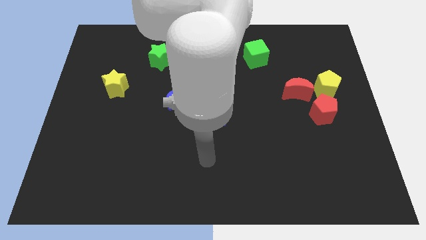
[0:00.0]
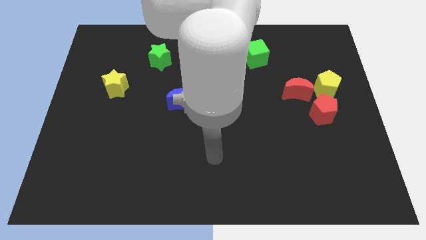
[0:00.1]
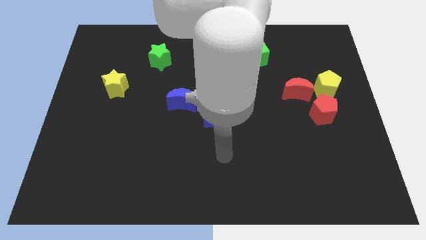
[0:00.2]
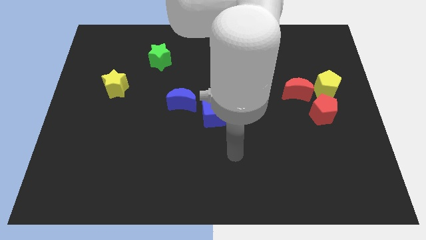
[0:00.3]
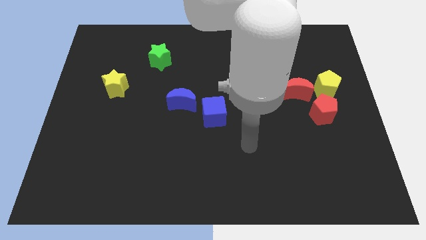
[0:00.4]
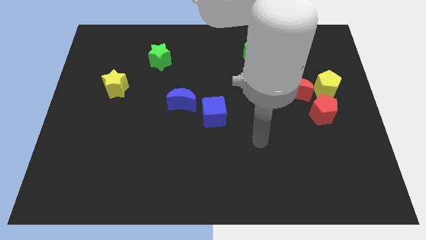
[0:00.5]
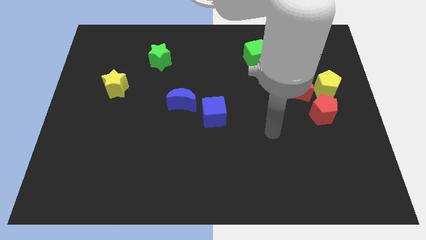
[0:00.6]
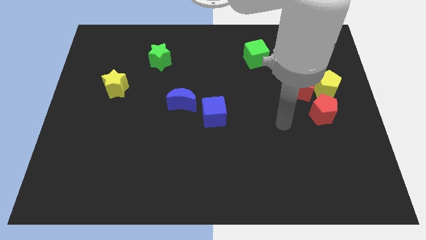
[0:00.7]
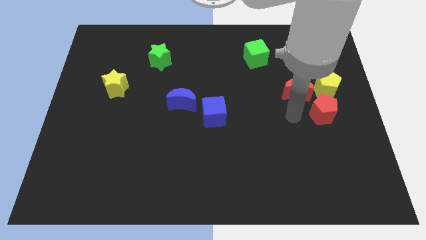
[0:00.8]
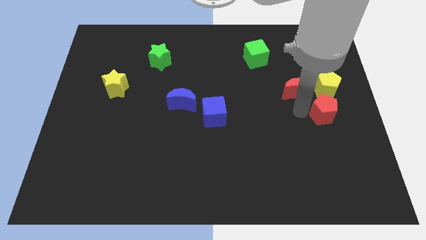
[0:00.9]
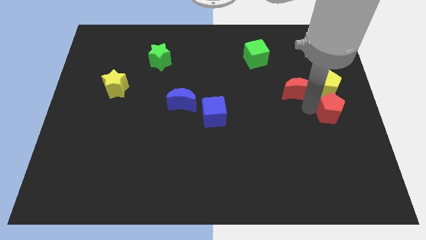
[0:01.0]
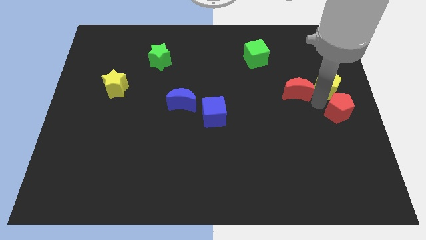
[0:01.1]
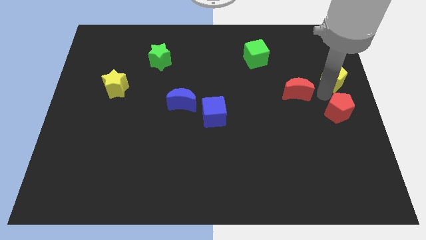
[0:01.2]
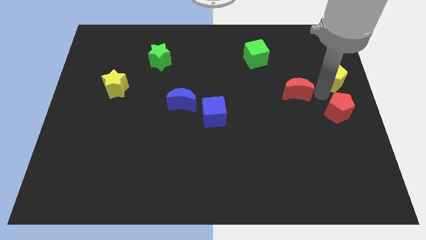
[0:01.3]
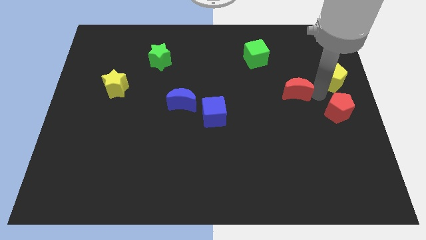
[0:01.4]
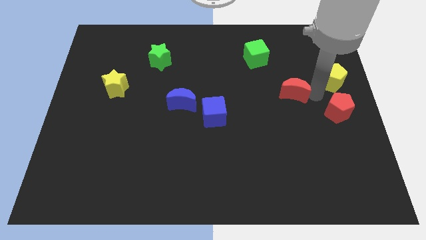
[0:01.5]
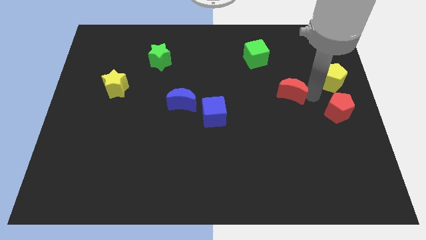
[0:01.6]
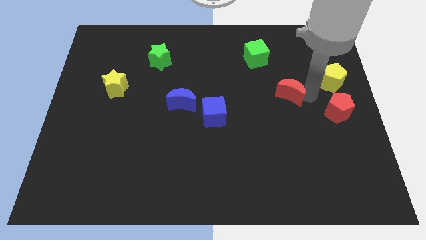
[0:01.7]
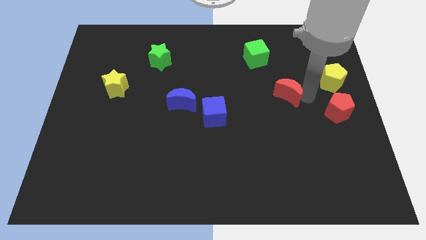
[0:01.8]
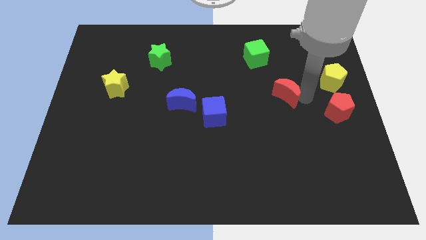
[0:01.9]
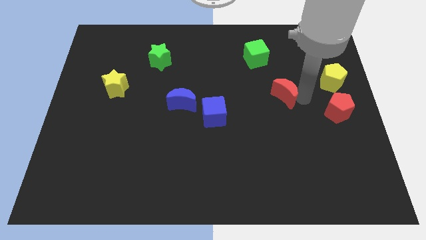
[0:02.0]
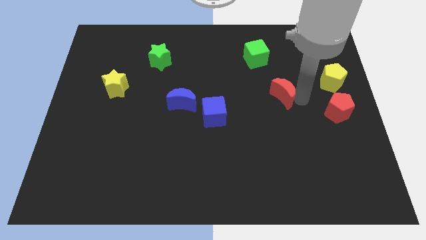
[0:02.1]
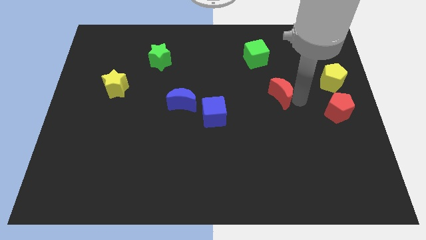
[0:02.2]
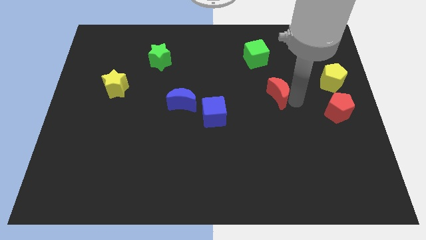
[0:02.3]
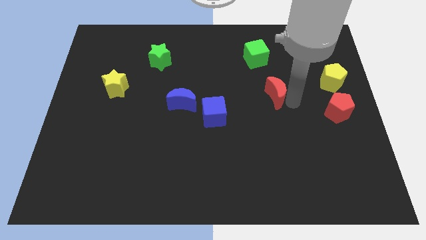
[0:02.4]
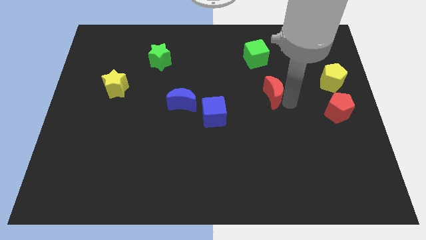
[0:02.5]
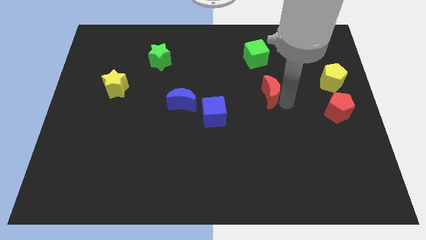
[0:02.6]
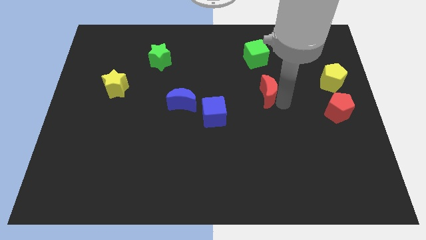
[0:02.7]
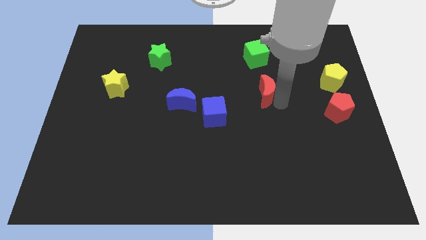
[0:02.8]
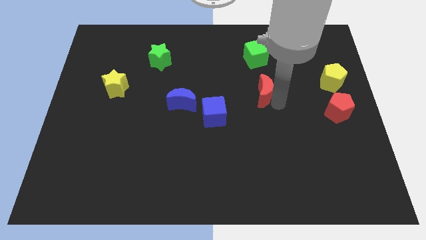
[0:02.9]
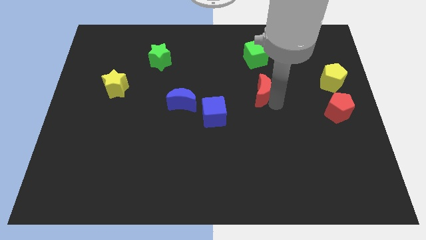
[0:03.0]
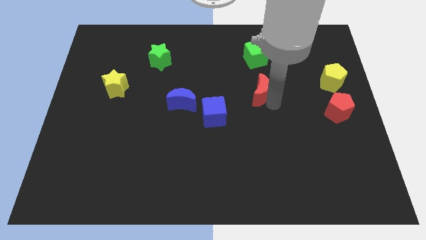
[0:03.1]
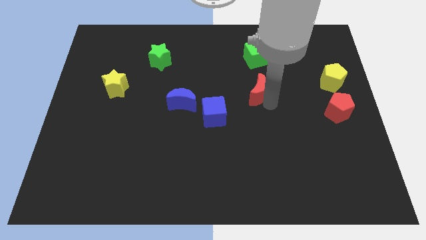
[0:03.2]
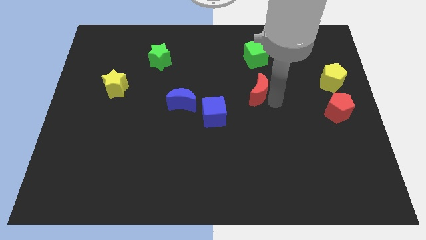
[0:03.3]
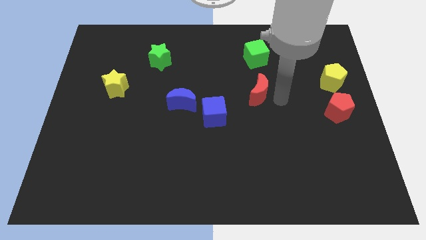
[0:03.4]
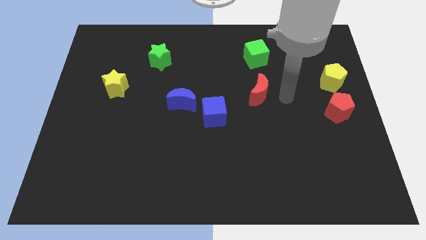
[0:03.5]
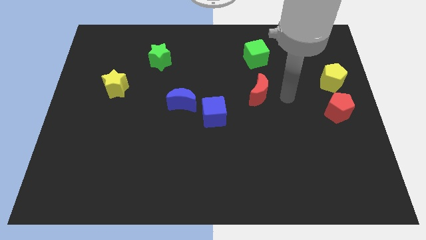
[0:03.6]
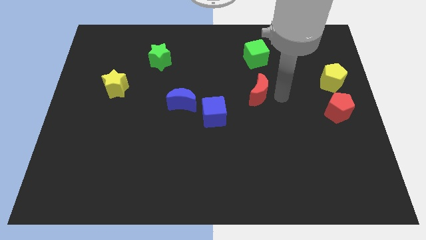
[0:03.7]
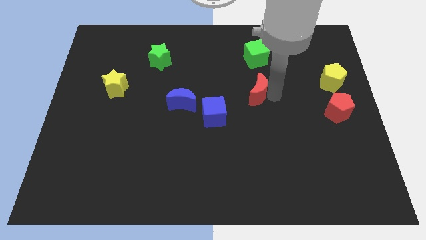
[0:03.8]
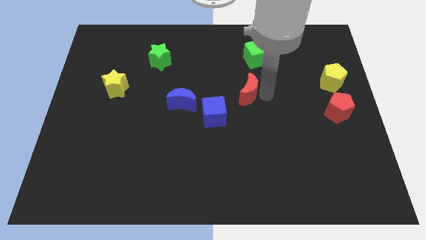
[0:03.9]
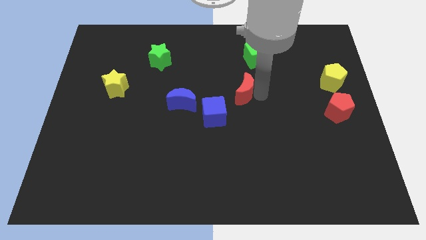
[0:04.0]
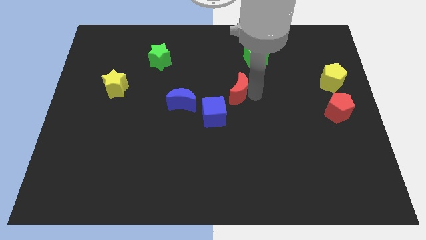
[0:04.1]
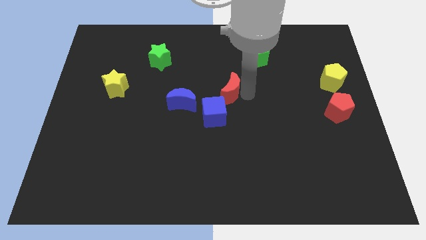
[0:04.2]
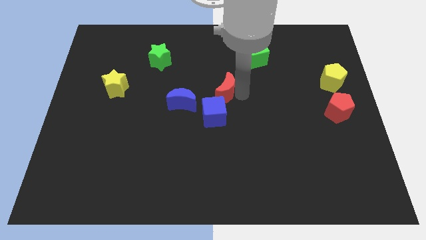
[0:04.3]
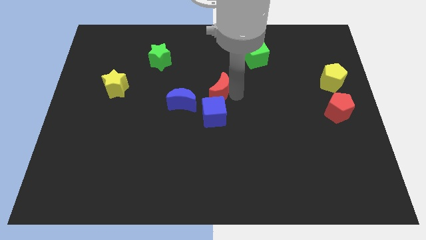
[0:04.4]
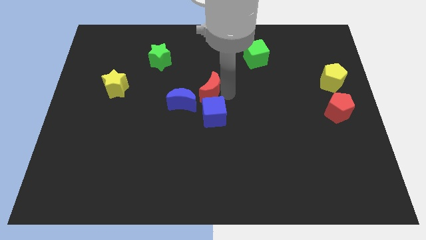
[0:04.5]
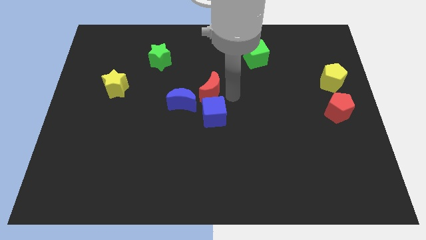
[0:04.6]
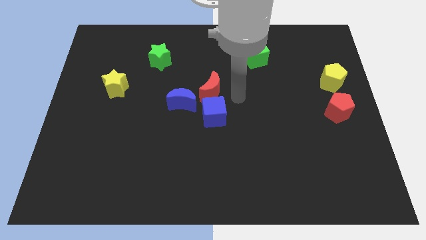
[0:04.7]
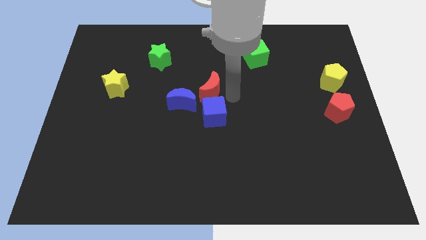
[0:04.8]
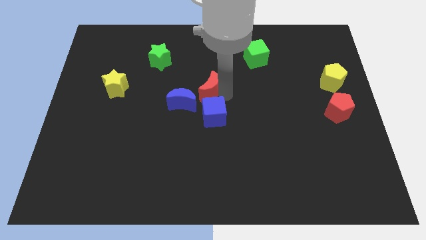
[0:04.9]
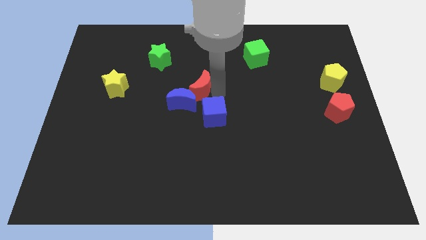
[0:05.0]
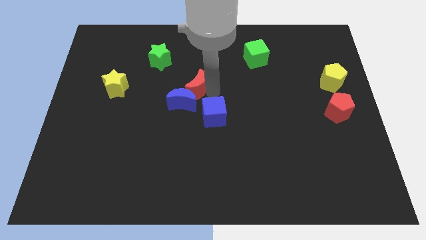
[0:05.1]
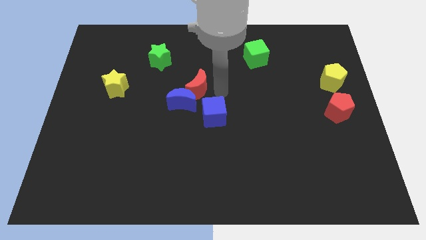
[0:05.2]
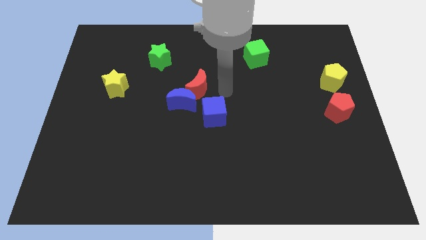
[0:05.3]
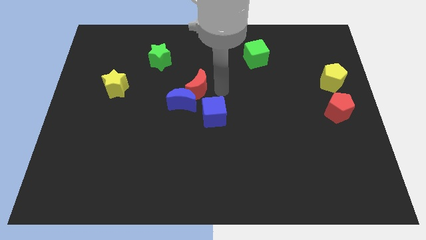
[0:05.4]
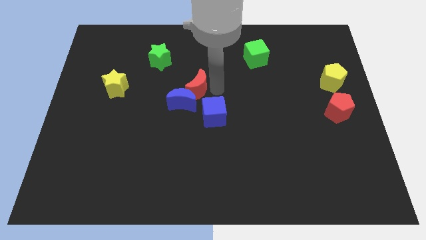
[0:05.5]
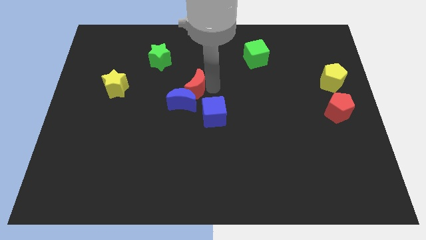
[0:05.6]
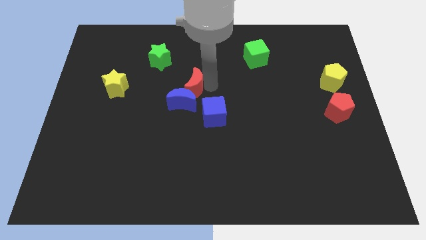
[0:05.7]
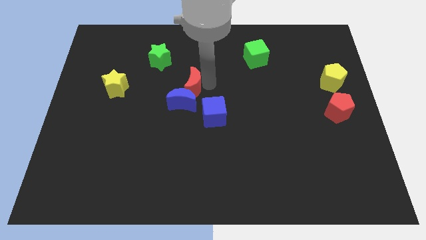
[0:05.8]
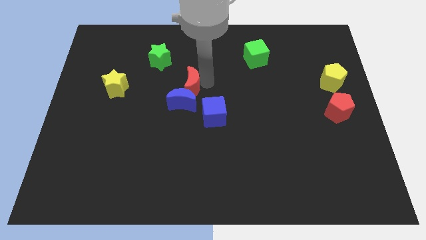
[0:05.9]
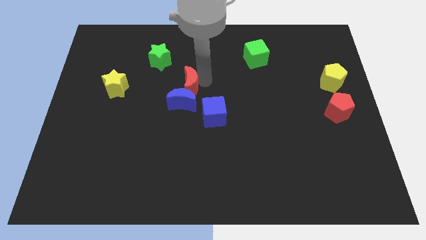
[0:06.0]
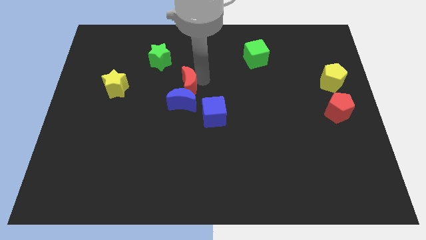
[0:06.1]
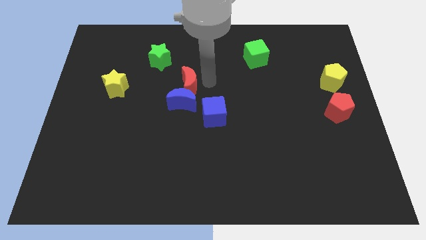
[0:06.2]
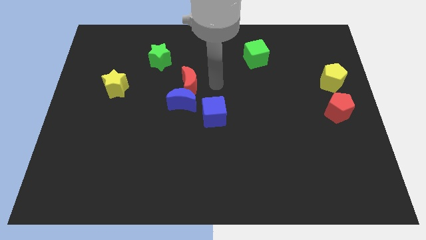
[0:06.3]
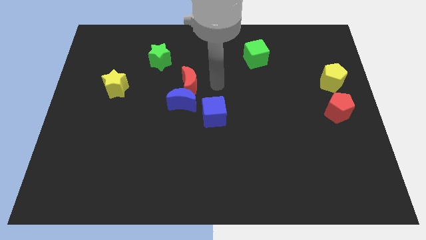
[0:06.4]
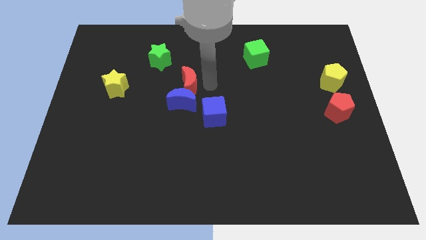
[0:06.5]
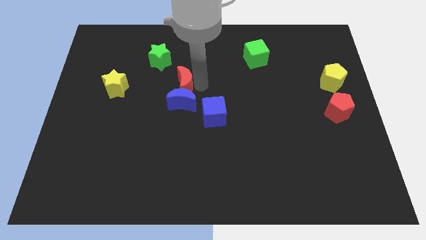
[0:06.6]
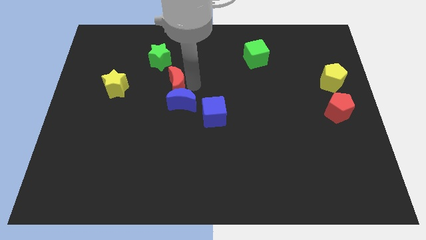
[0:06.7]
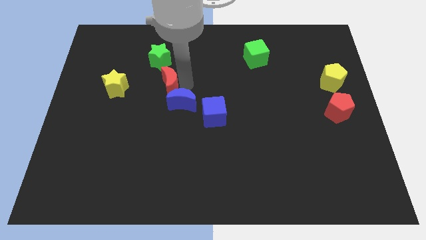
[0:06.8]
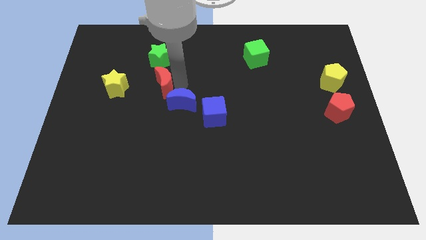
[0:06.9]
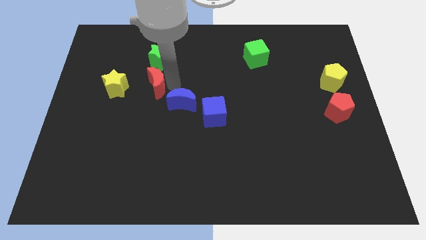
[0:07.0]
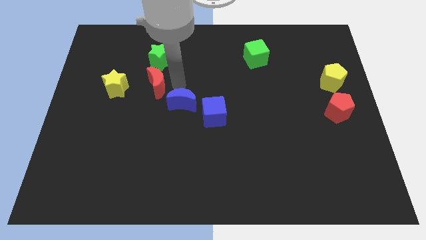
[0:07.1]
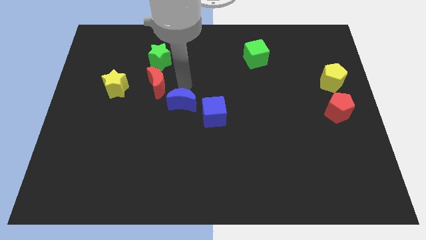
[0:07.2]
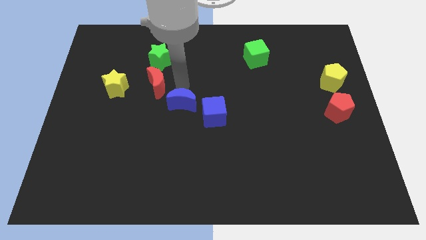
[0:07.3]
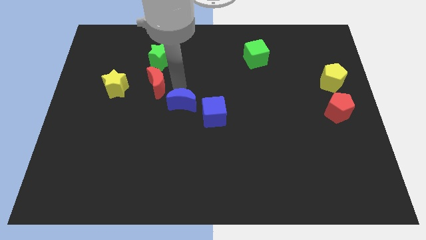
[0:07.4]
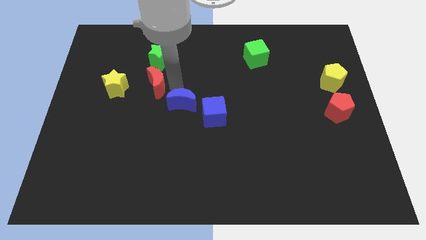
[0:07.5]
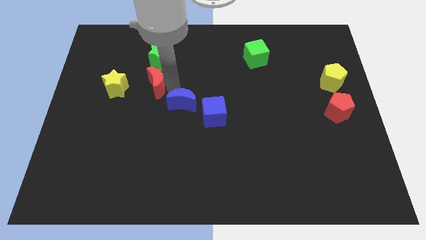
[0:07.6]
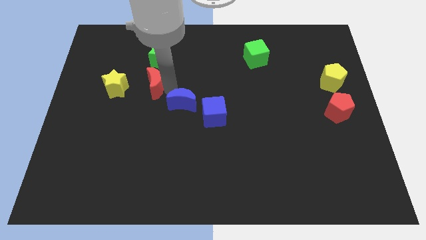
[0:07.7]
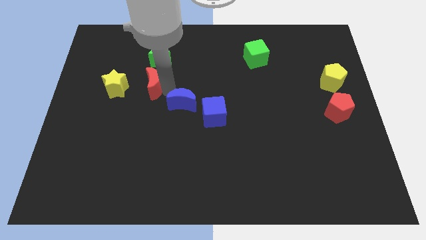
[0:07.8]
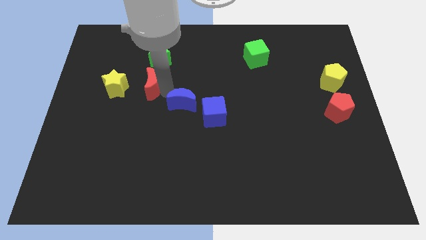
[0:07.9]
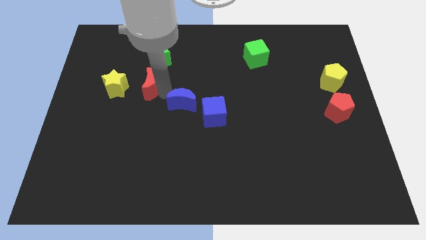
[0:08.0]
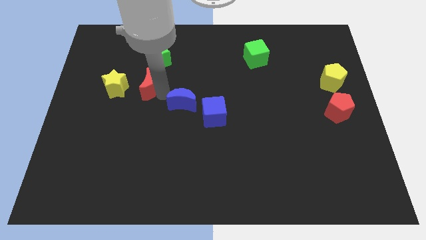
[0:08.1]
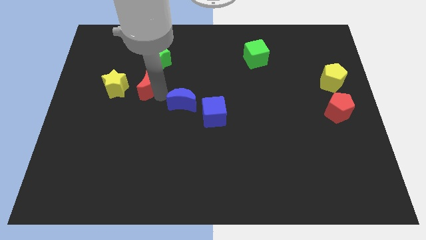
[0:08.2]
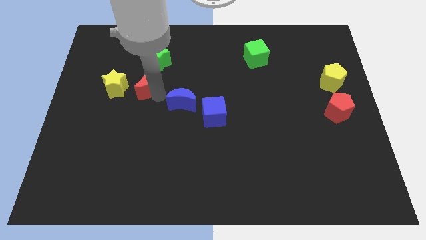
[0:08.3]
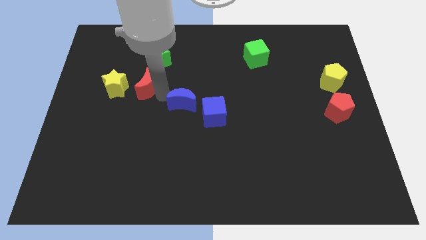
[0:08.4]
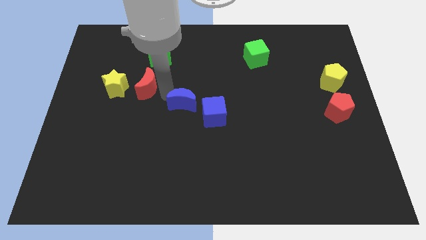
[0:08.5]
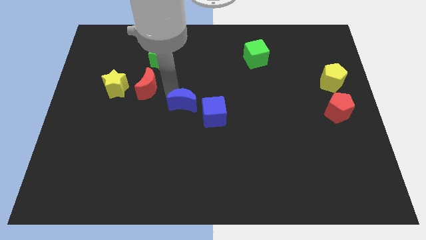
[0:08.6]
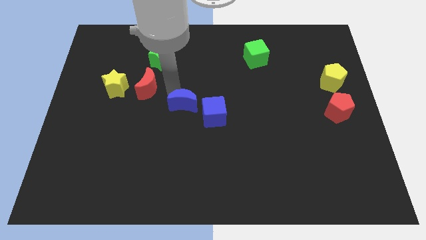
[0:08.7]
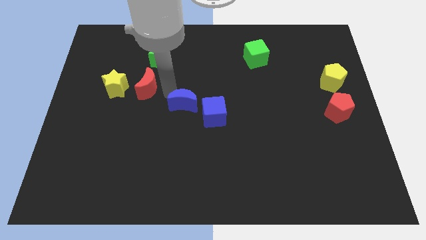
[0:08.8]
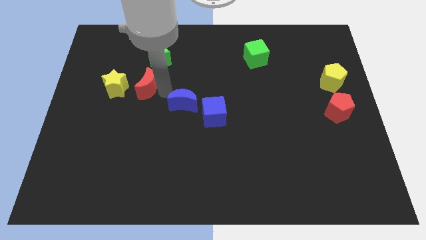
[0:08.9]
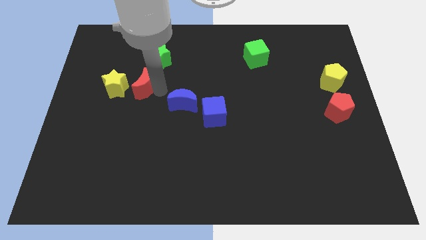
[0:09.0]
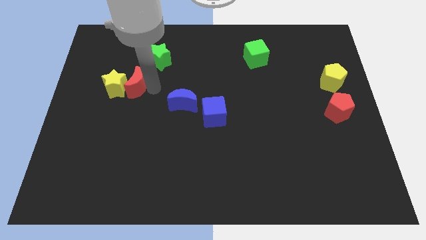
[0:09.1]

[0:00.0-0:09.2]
put the red moon close to the yellow star
